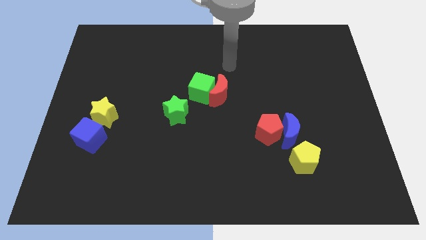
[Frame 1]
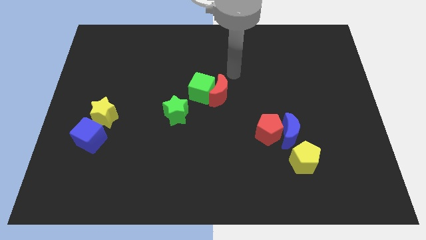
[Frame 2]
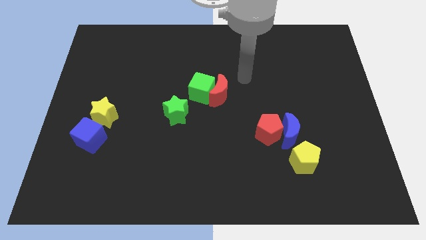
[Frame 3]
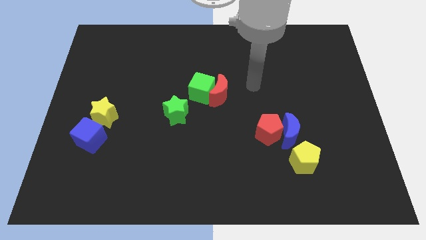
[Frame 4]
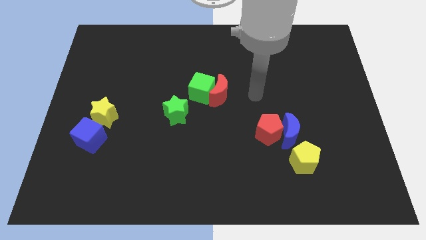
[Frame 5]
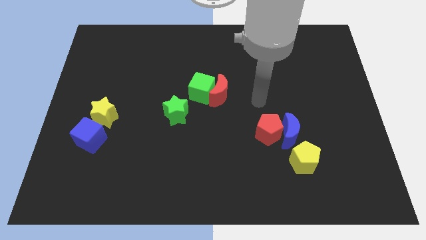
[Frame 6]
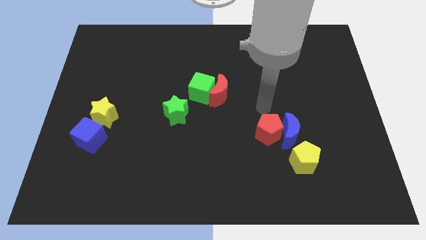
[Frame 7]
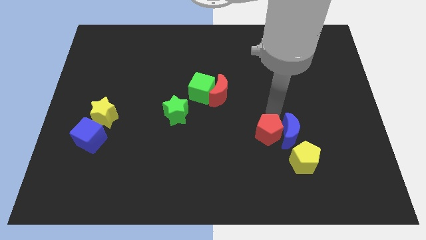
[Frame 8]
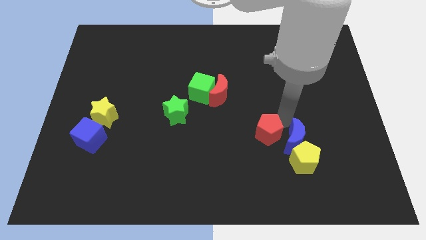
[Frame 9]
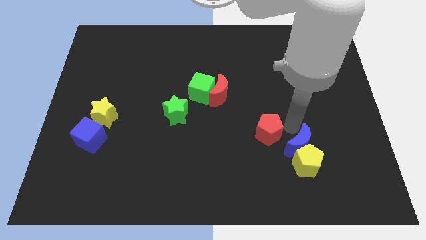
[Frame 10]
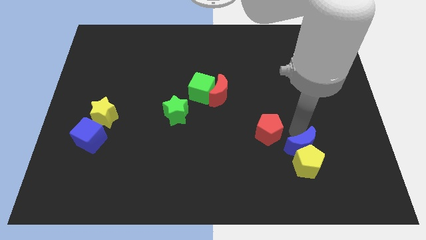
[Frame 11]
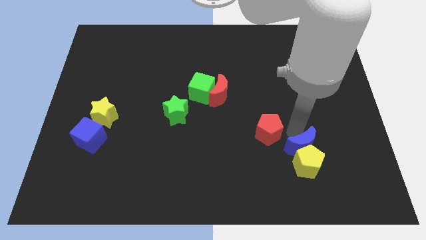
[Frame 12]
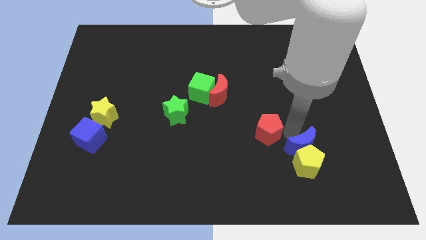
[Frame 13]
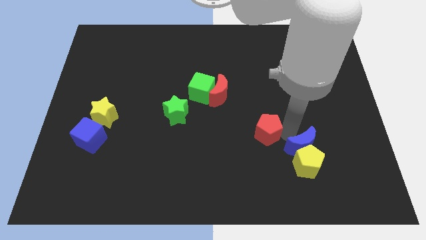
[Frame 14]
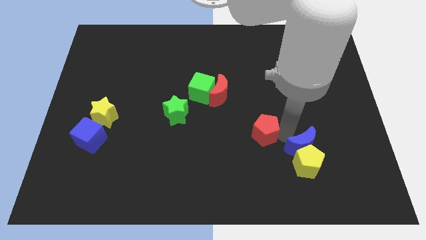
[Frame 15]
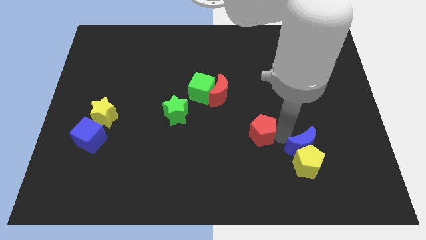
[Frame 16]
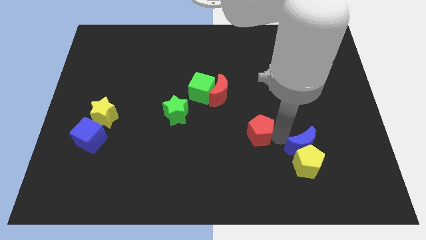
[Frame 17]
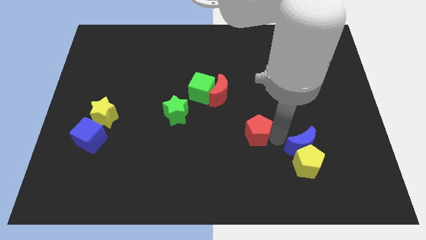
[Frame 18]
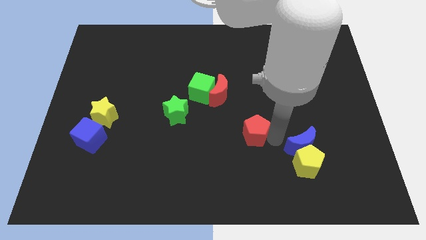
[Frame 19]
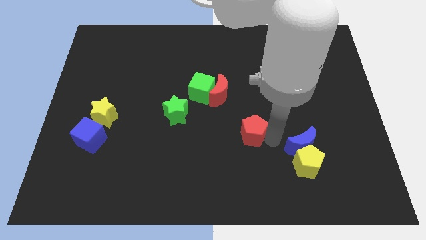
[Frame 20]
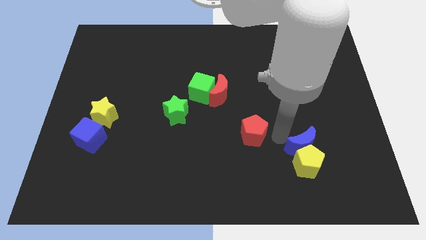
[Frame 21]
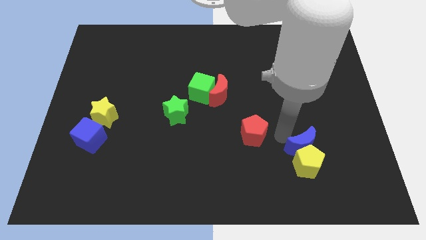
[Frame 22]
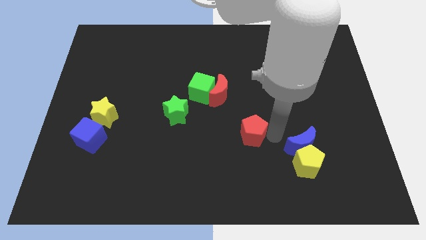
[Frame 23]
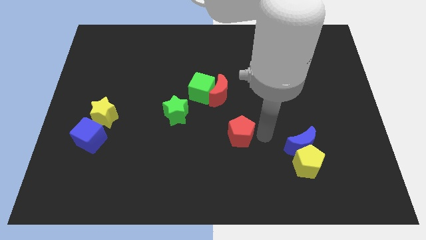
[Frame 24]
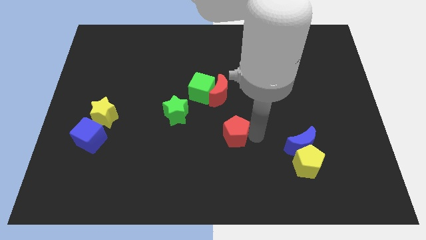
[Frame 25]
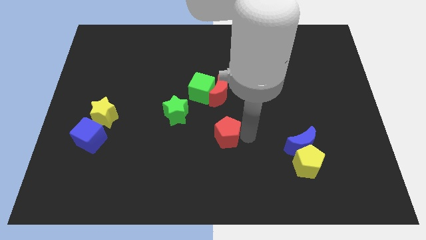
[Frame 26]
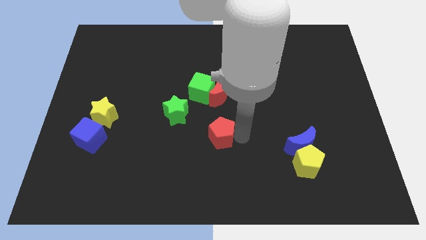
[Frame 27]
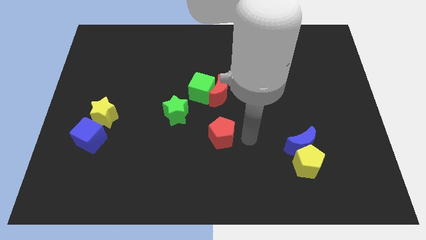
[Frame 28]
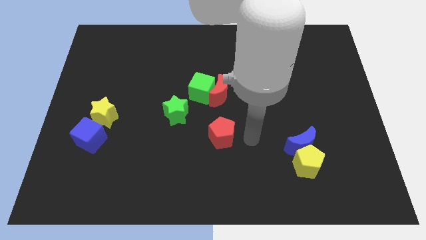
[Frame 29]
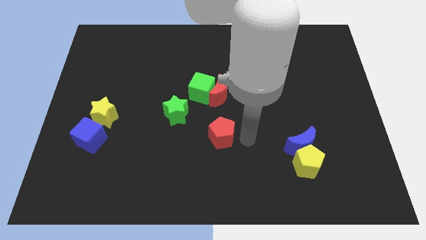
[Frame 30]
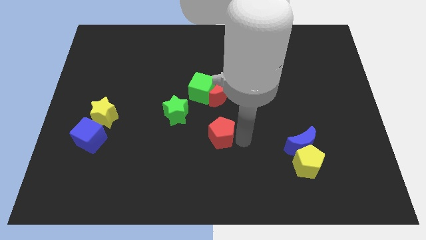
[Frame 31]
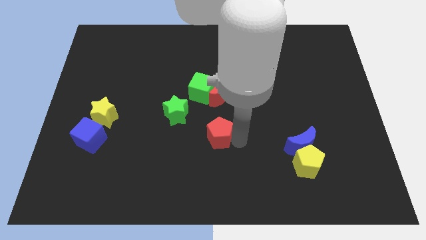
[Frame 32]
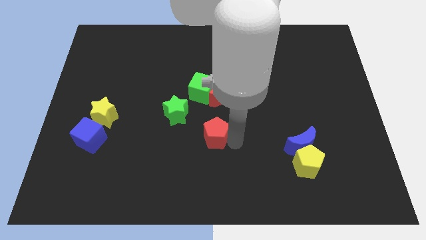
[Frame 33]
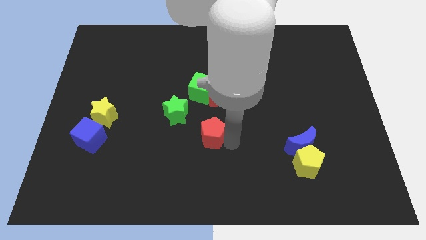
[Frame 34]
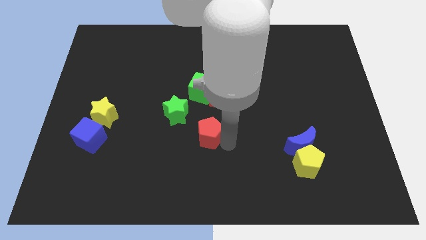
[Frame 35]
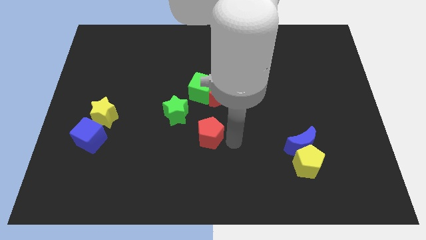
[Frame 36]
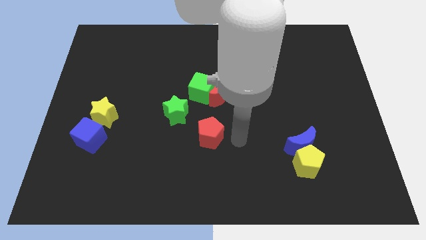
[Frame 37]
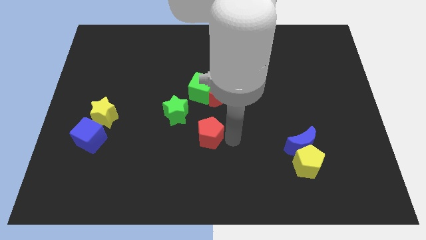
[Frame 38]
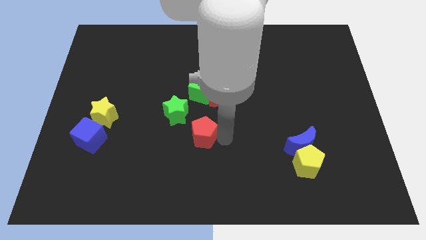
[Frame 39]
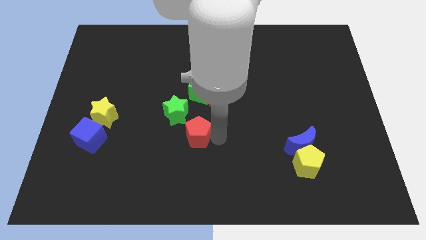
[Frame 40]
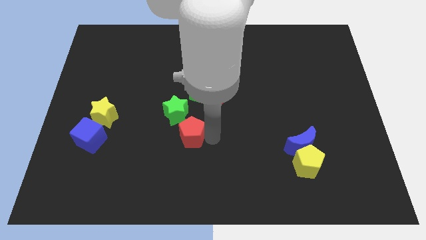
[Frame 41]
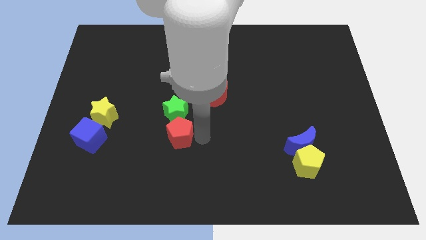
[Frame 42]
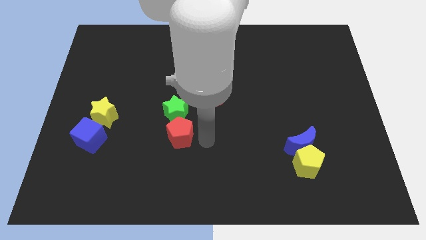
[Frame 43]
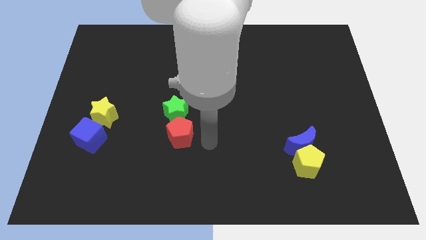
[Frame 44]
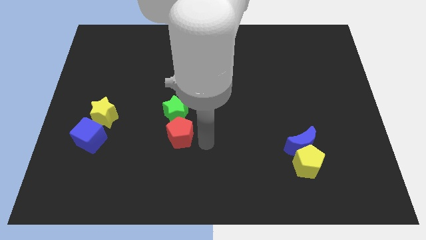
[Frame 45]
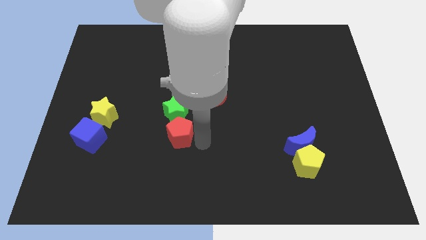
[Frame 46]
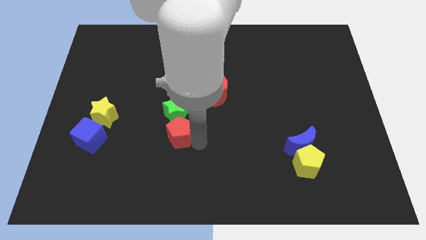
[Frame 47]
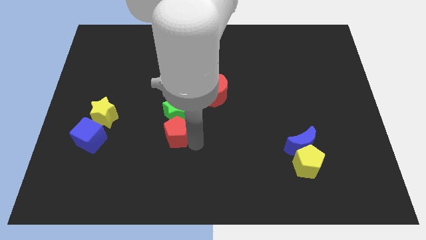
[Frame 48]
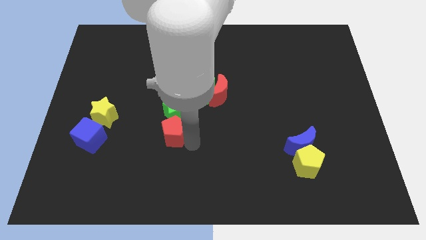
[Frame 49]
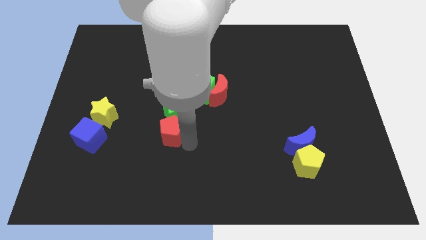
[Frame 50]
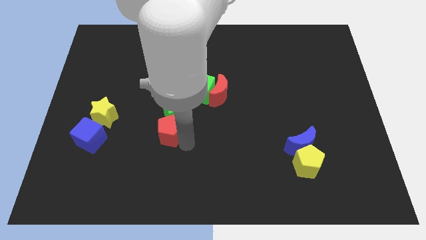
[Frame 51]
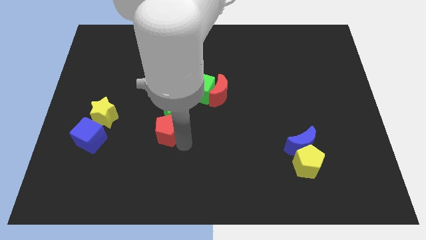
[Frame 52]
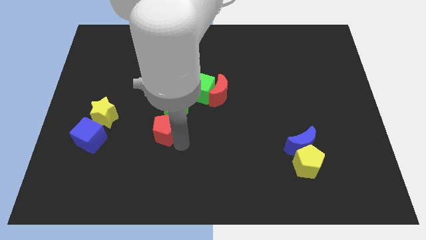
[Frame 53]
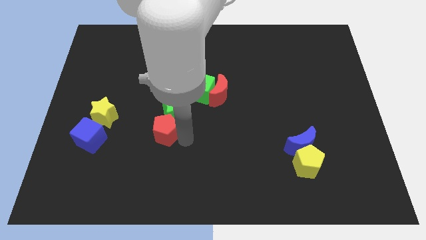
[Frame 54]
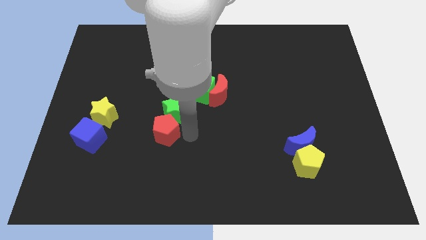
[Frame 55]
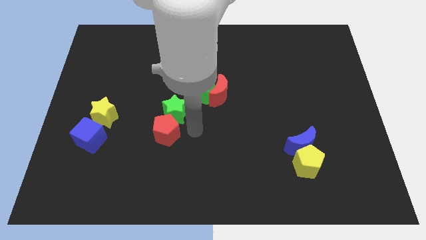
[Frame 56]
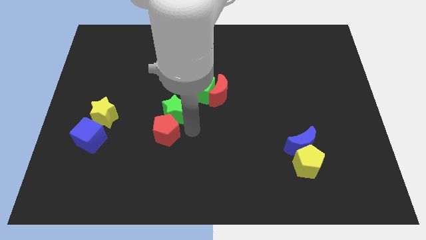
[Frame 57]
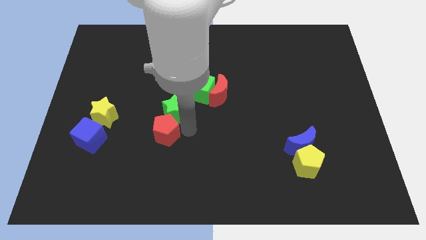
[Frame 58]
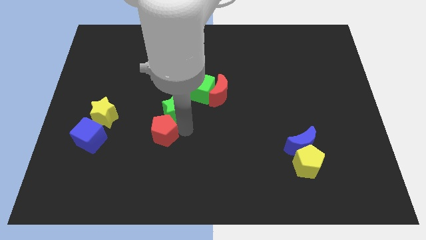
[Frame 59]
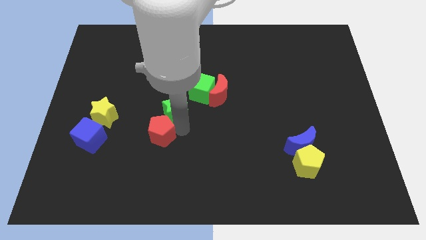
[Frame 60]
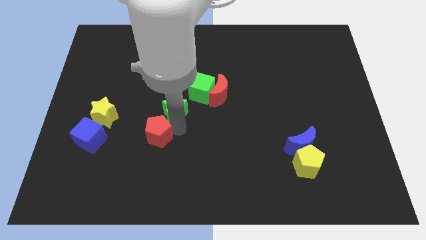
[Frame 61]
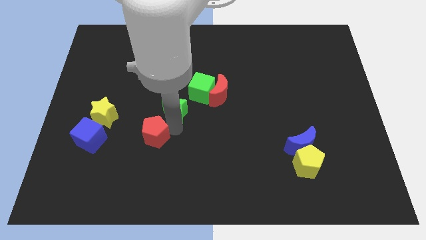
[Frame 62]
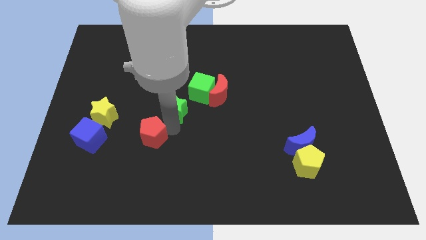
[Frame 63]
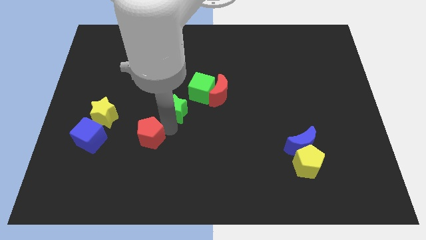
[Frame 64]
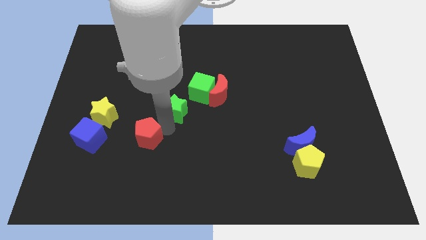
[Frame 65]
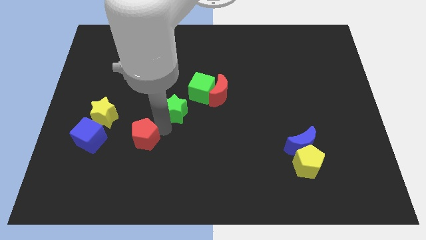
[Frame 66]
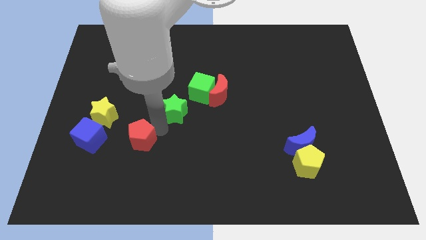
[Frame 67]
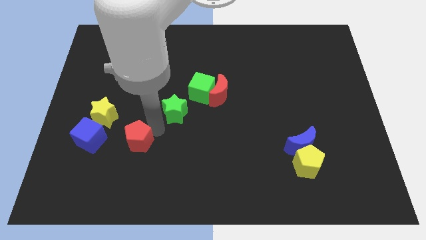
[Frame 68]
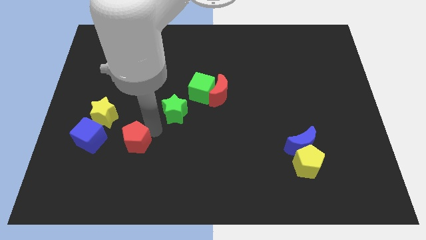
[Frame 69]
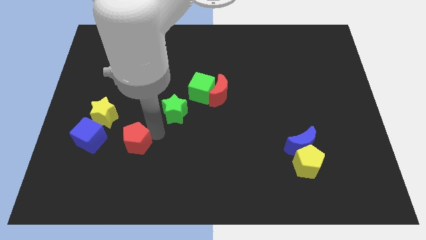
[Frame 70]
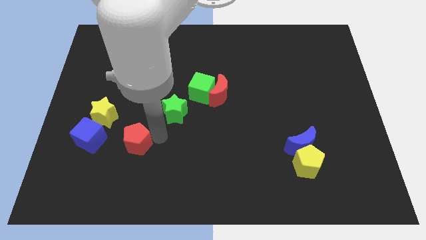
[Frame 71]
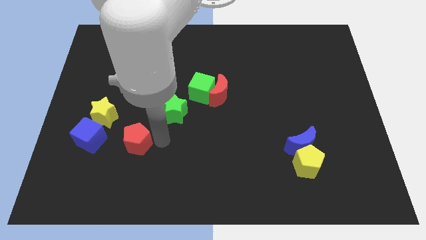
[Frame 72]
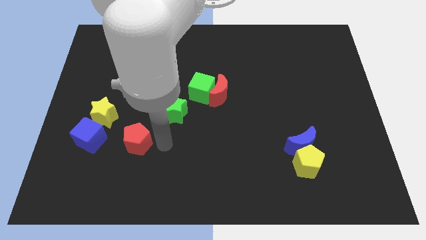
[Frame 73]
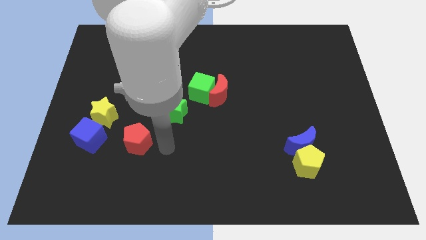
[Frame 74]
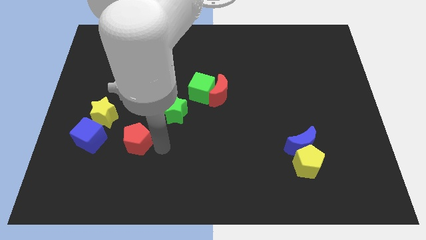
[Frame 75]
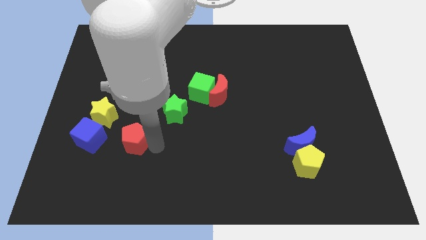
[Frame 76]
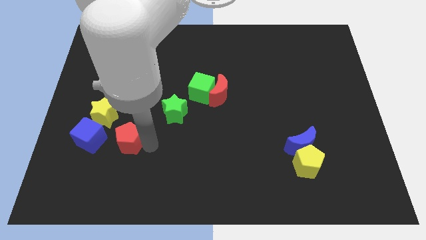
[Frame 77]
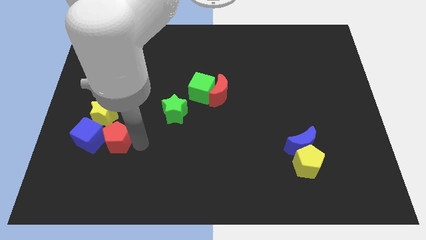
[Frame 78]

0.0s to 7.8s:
move the red pentagon next to the blue cube
